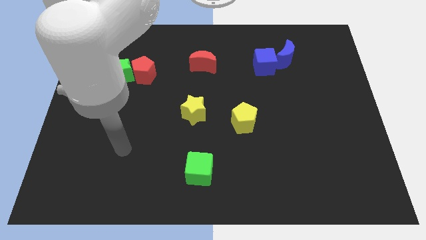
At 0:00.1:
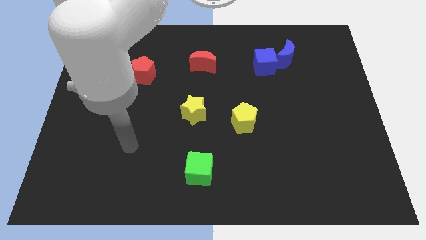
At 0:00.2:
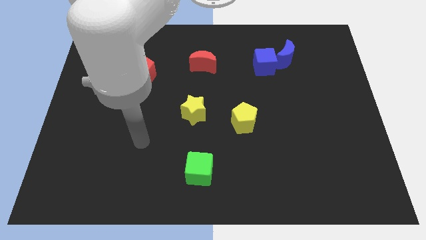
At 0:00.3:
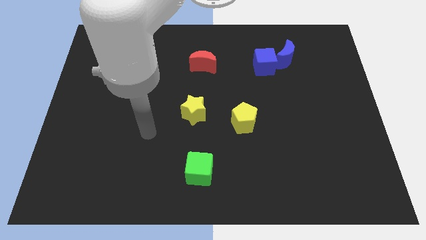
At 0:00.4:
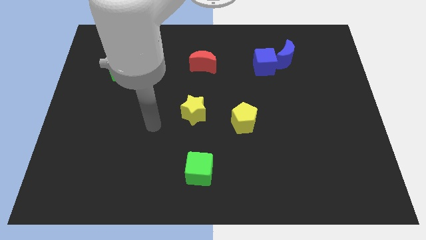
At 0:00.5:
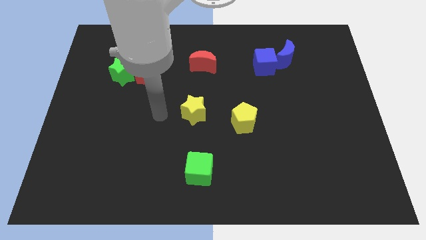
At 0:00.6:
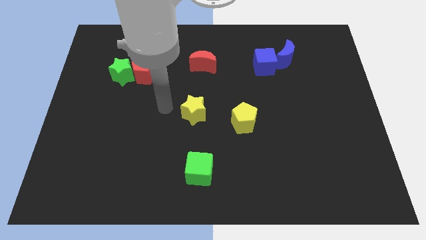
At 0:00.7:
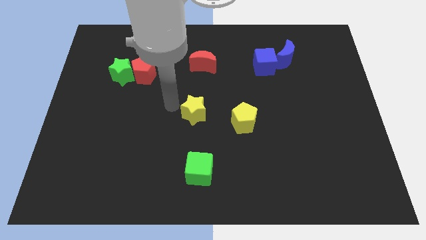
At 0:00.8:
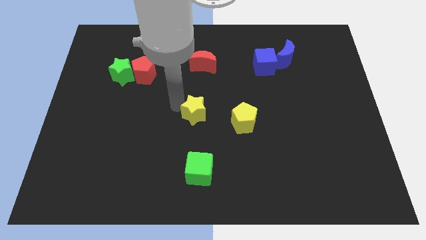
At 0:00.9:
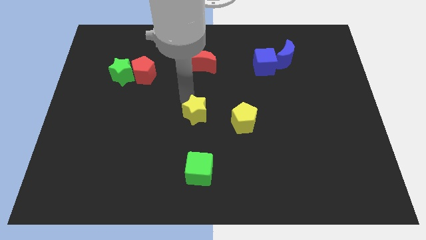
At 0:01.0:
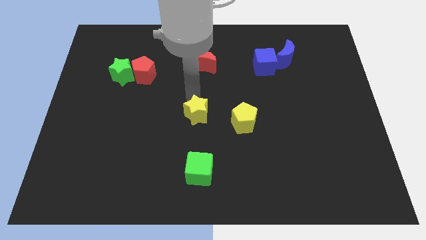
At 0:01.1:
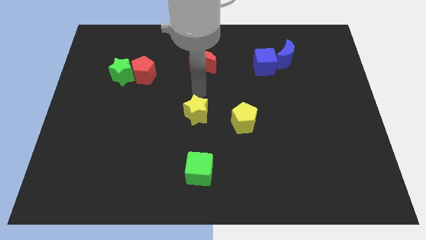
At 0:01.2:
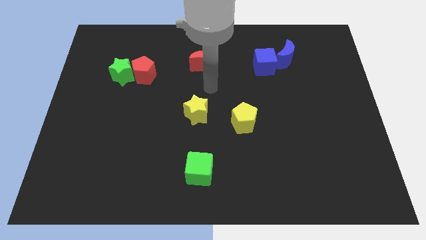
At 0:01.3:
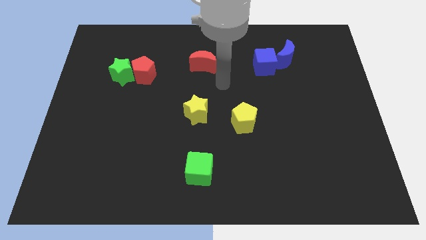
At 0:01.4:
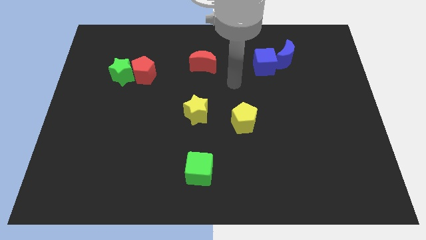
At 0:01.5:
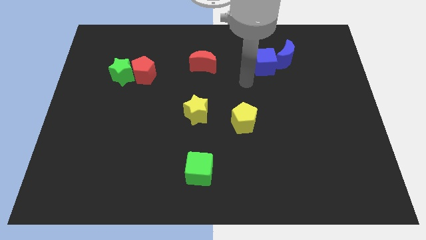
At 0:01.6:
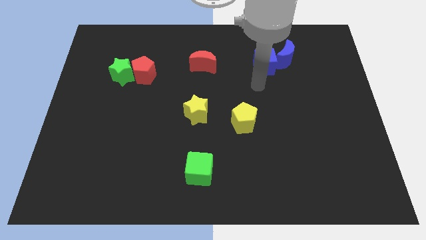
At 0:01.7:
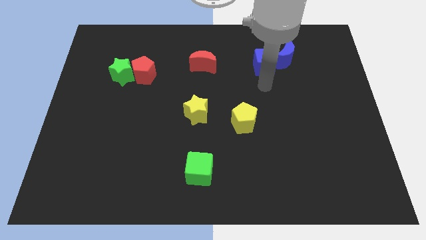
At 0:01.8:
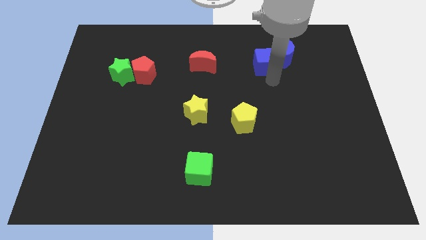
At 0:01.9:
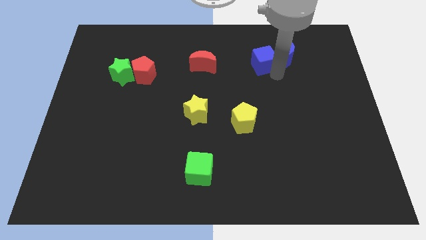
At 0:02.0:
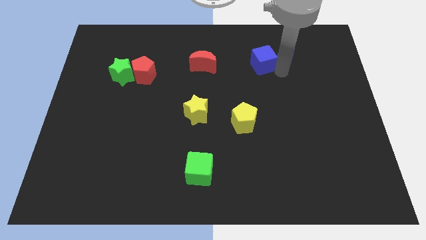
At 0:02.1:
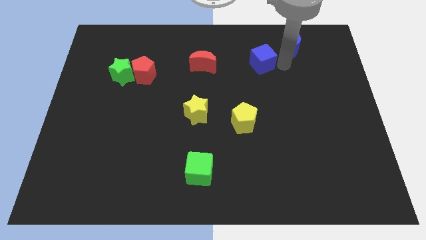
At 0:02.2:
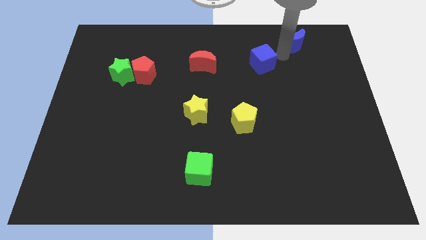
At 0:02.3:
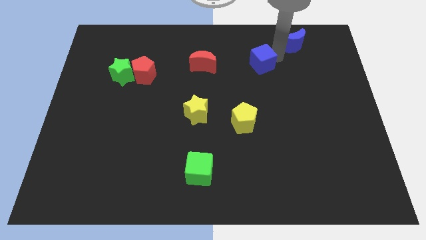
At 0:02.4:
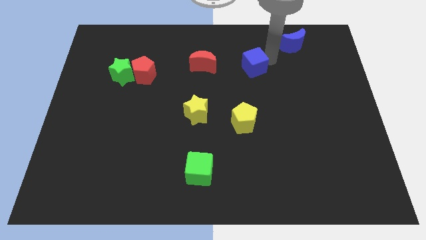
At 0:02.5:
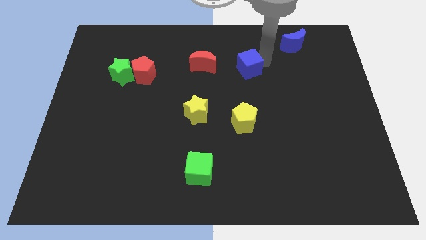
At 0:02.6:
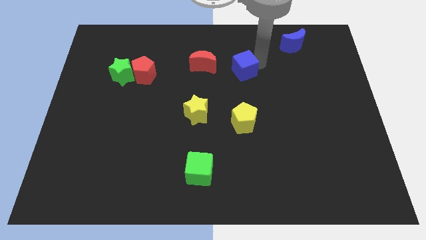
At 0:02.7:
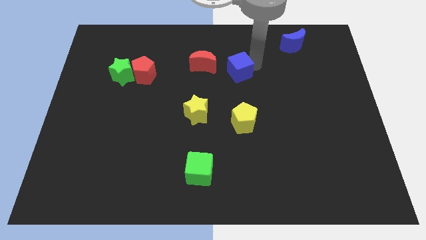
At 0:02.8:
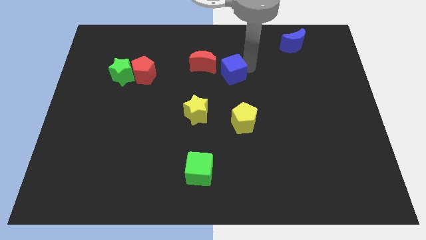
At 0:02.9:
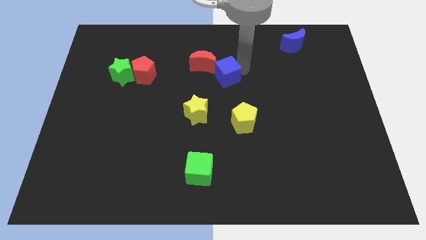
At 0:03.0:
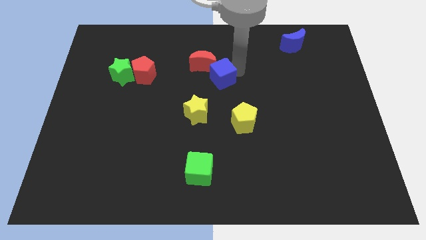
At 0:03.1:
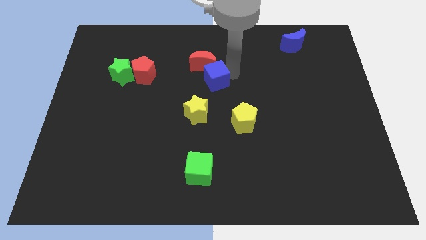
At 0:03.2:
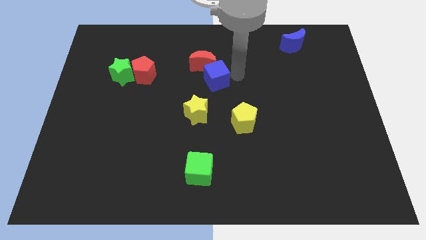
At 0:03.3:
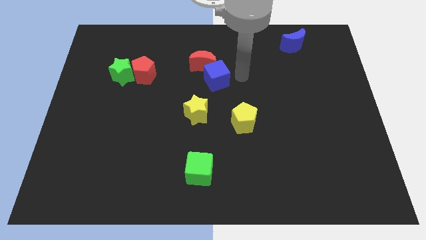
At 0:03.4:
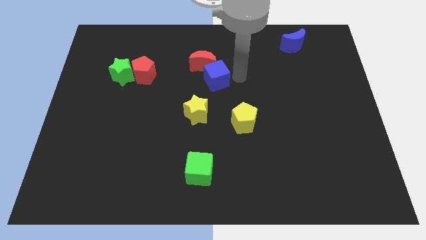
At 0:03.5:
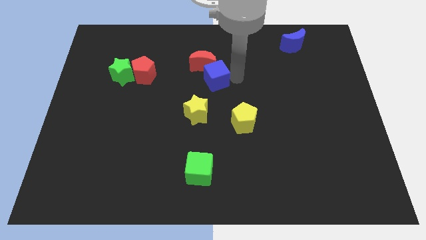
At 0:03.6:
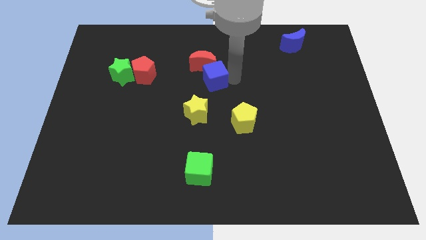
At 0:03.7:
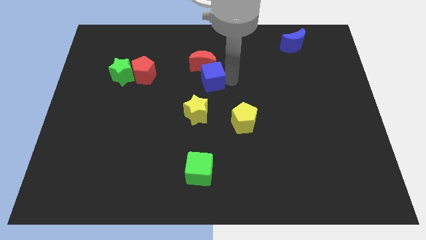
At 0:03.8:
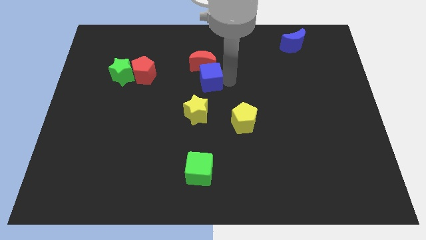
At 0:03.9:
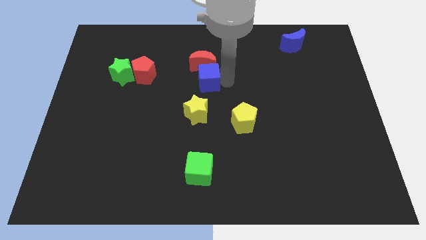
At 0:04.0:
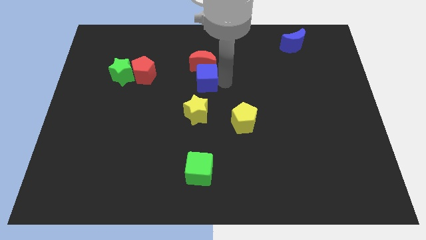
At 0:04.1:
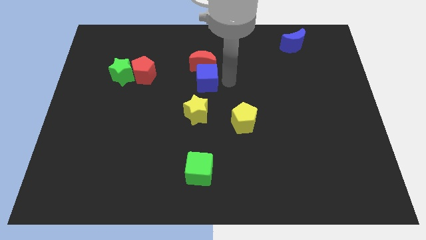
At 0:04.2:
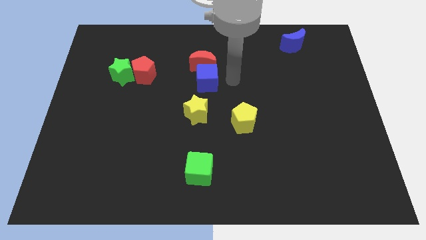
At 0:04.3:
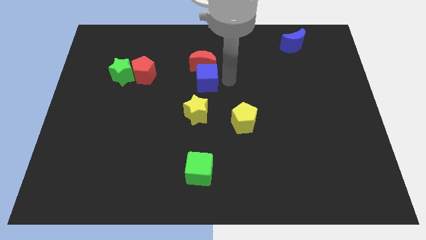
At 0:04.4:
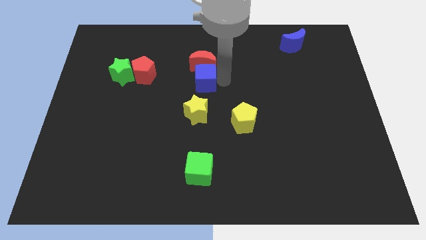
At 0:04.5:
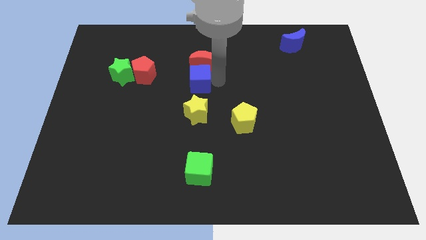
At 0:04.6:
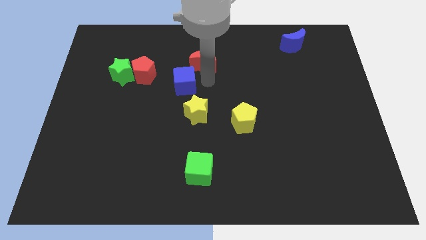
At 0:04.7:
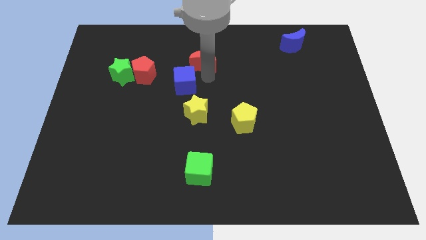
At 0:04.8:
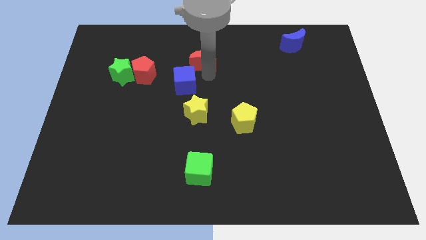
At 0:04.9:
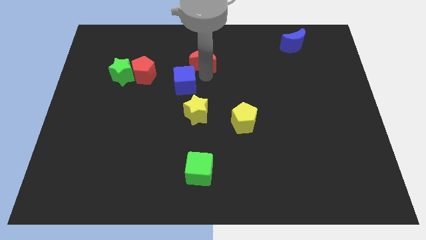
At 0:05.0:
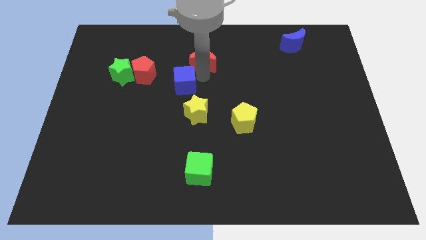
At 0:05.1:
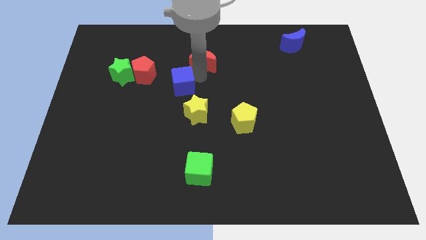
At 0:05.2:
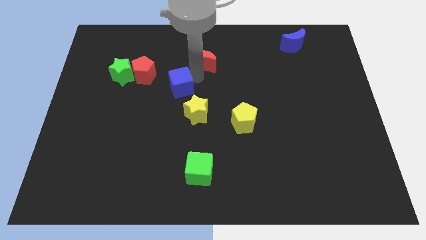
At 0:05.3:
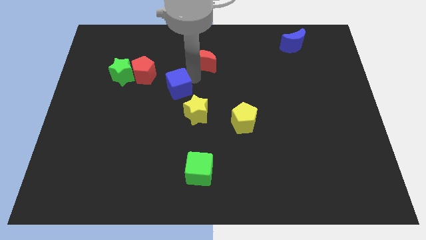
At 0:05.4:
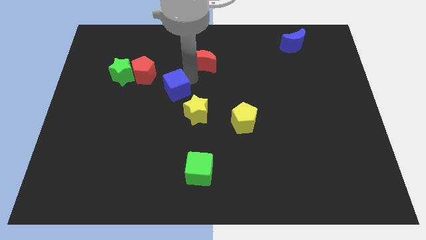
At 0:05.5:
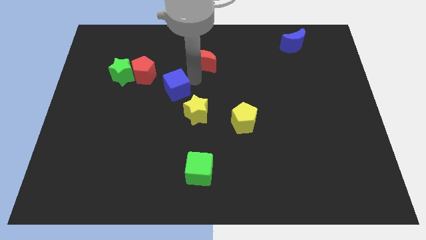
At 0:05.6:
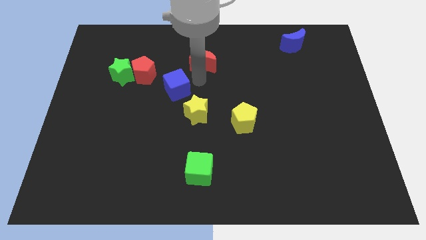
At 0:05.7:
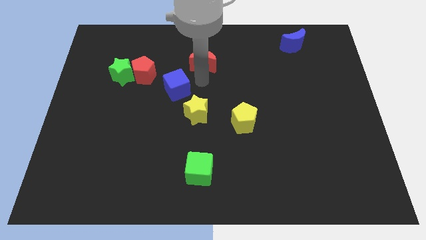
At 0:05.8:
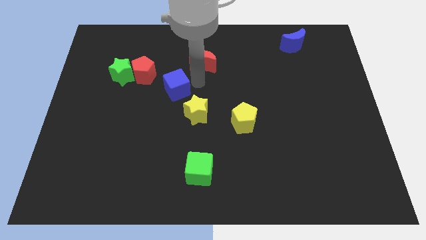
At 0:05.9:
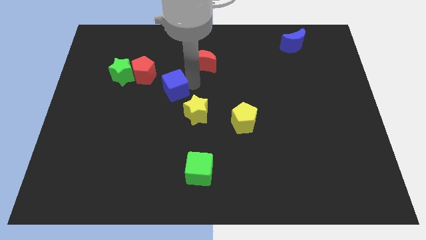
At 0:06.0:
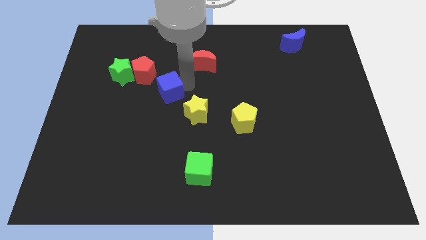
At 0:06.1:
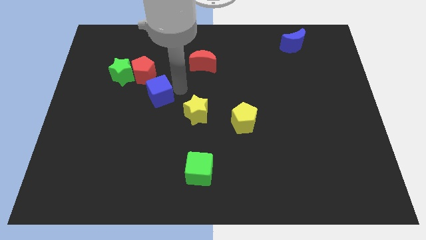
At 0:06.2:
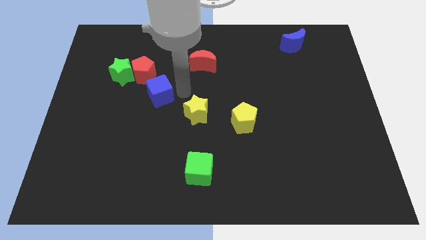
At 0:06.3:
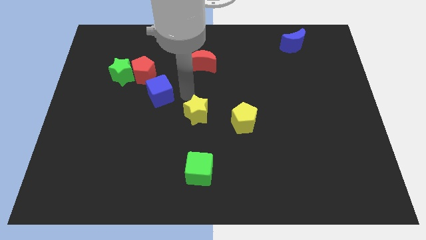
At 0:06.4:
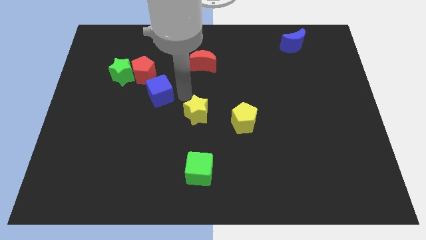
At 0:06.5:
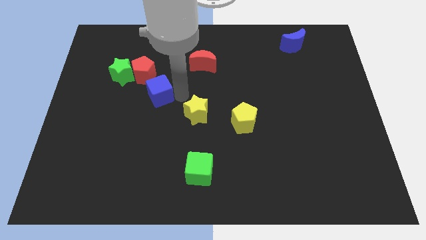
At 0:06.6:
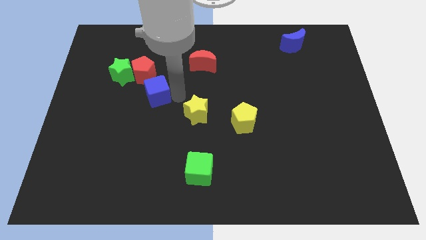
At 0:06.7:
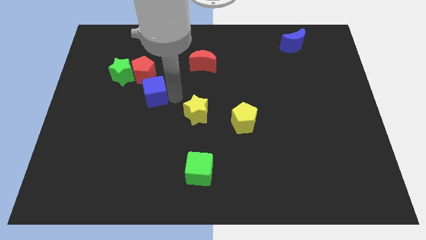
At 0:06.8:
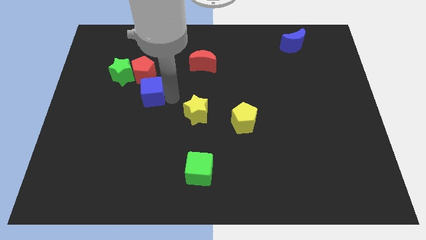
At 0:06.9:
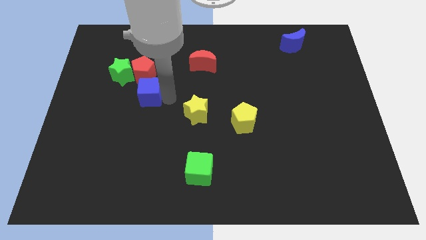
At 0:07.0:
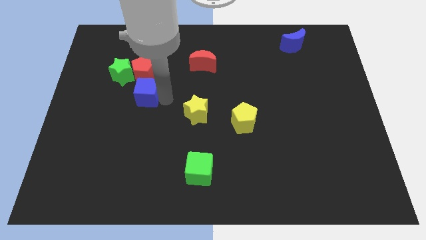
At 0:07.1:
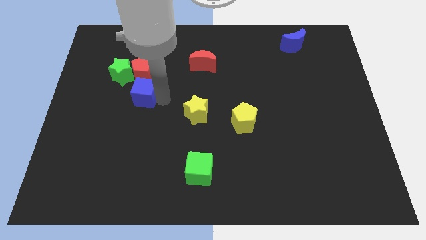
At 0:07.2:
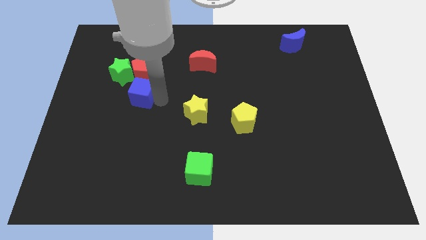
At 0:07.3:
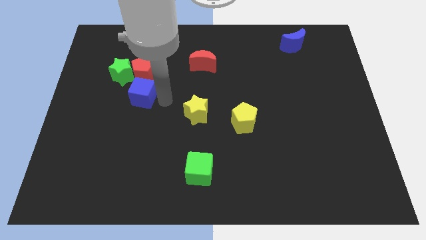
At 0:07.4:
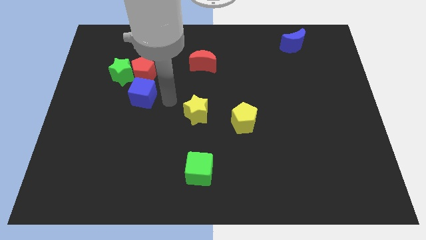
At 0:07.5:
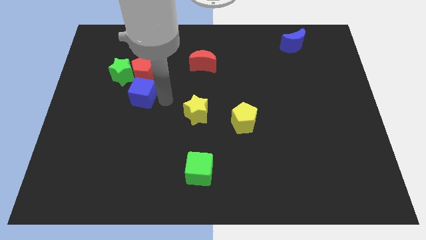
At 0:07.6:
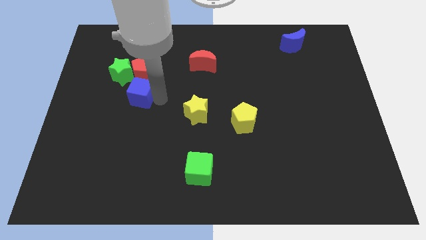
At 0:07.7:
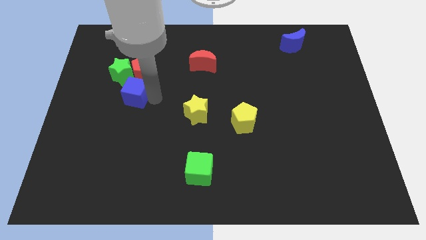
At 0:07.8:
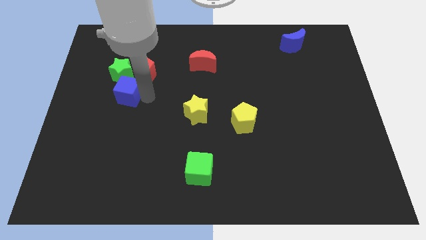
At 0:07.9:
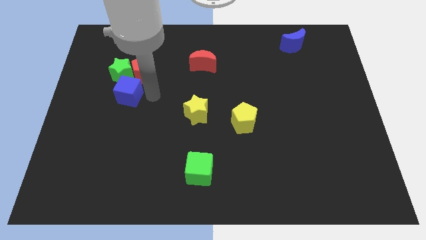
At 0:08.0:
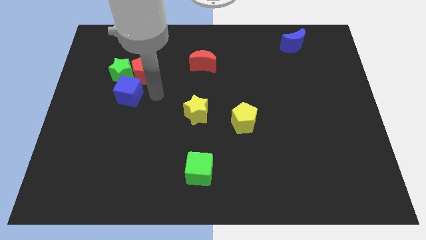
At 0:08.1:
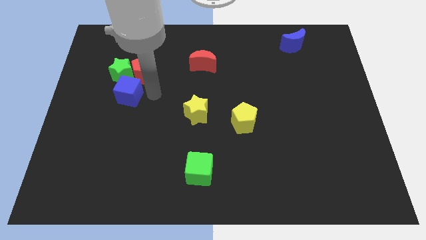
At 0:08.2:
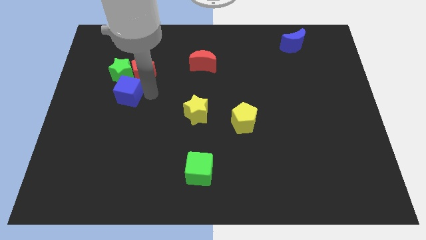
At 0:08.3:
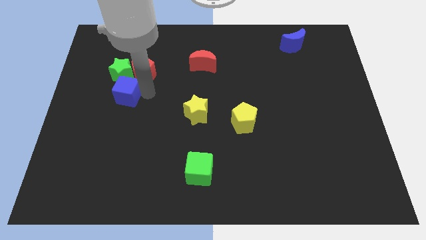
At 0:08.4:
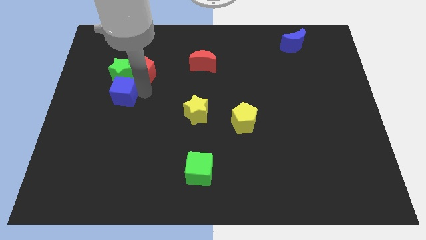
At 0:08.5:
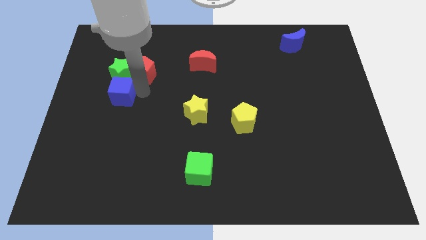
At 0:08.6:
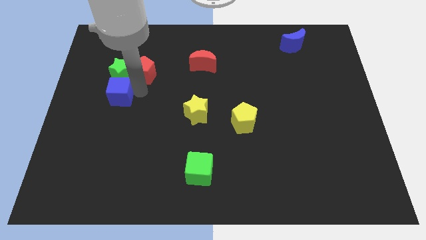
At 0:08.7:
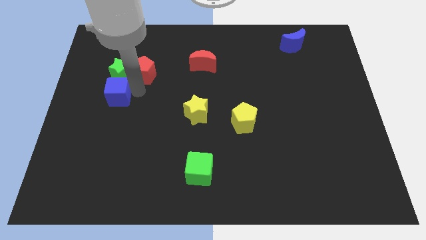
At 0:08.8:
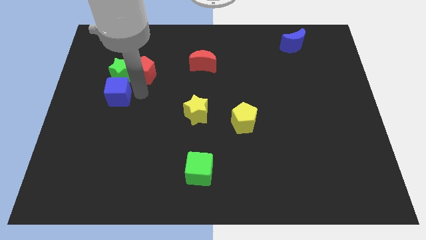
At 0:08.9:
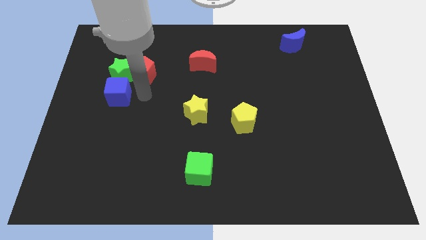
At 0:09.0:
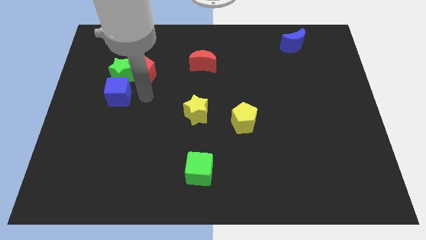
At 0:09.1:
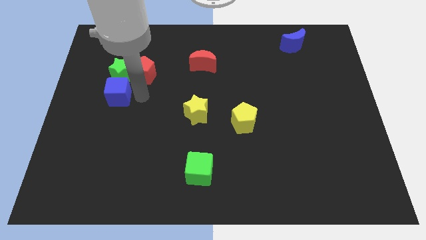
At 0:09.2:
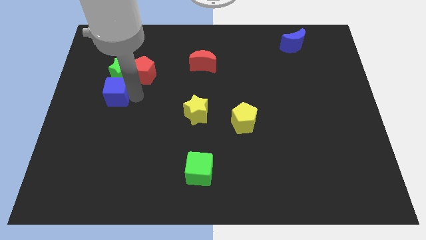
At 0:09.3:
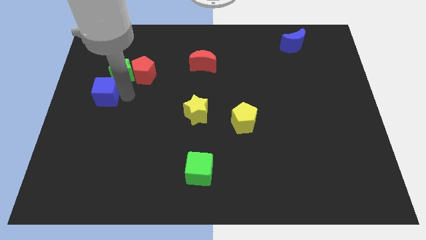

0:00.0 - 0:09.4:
slide the blue cube to the left side of the board
